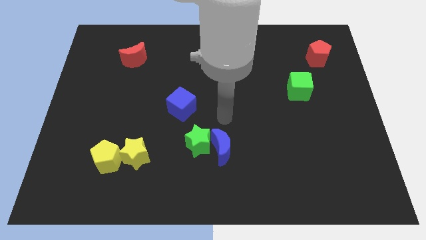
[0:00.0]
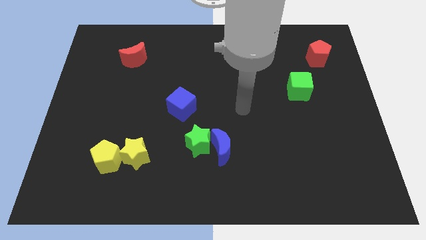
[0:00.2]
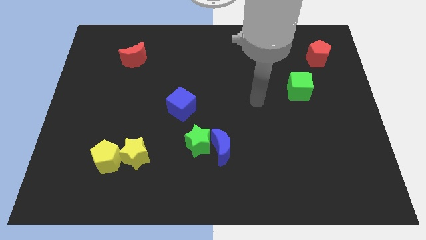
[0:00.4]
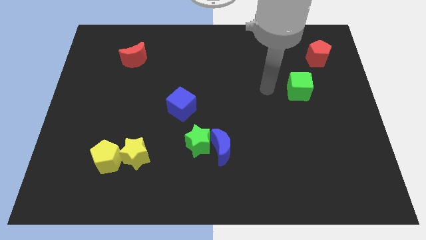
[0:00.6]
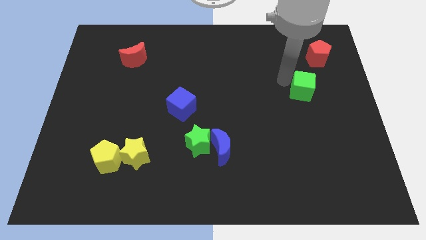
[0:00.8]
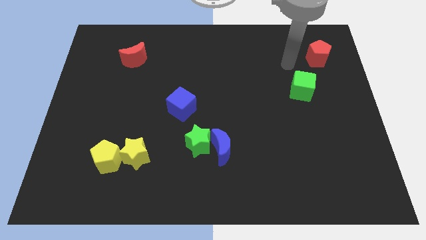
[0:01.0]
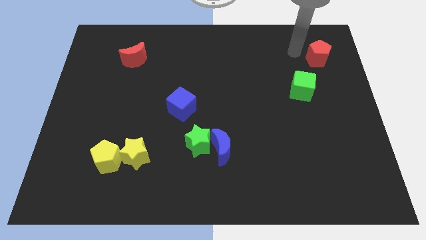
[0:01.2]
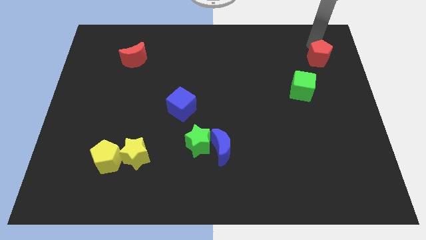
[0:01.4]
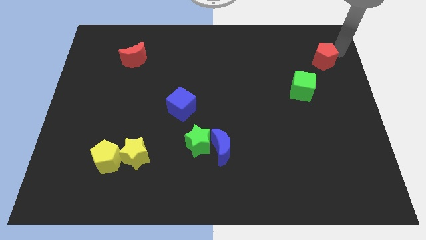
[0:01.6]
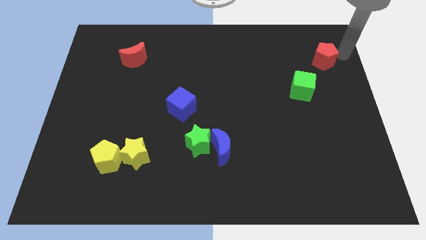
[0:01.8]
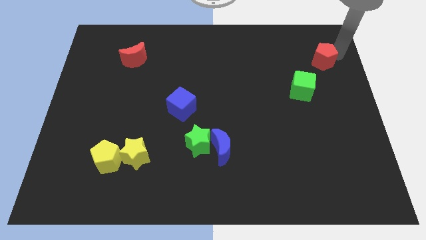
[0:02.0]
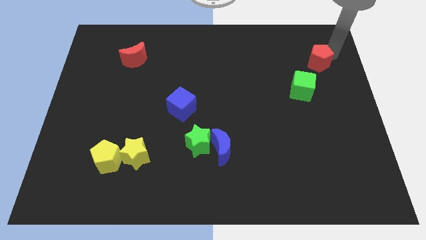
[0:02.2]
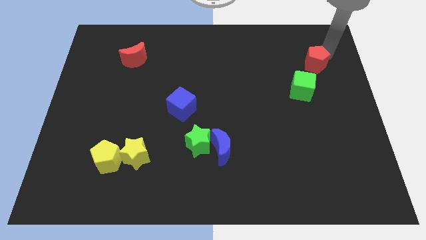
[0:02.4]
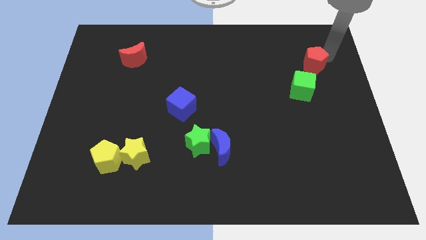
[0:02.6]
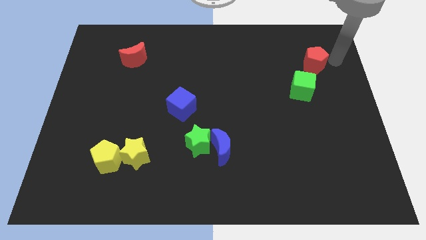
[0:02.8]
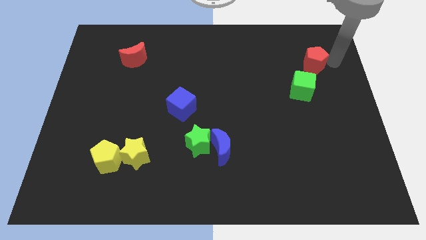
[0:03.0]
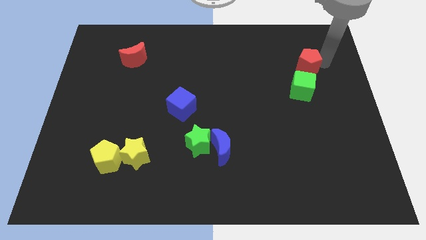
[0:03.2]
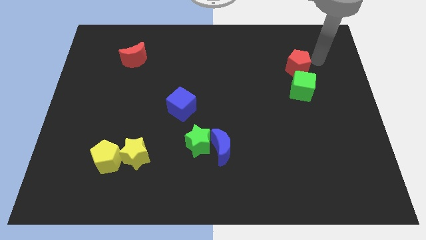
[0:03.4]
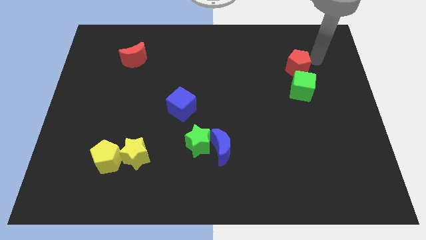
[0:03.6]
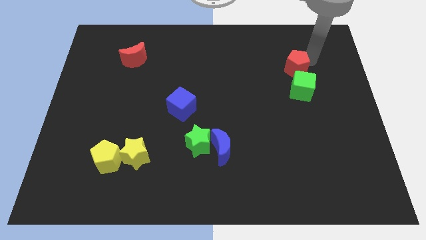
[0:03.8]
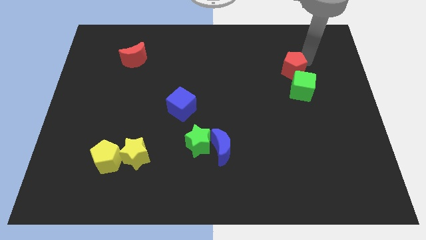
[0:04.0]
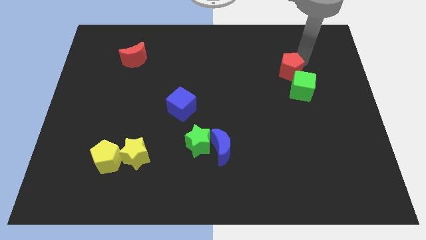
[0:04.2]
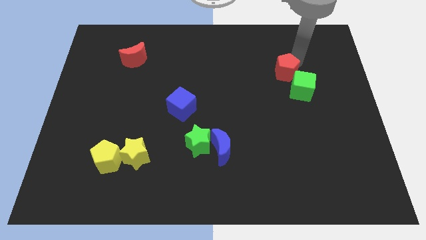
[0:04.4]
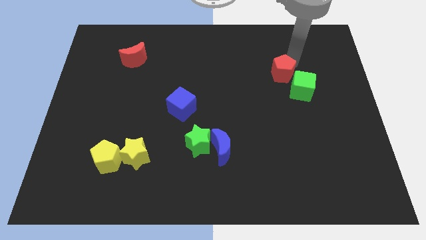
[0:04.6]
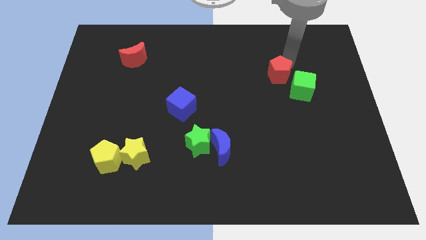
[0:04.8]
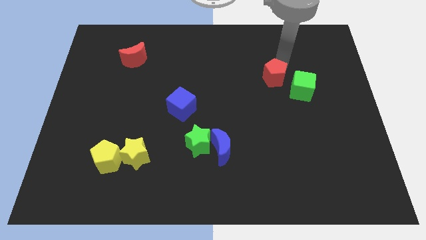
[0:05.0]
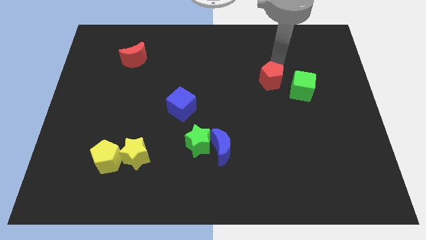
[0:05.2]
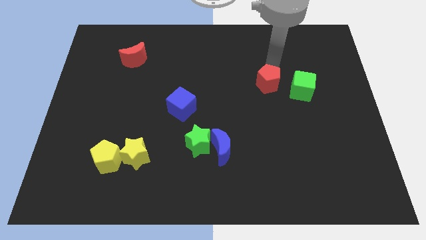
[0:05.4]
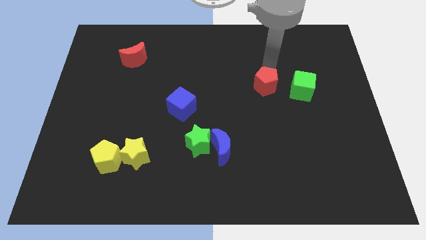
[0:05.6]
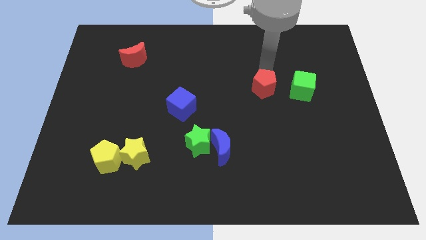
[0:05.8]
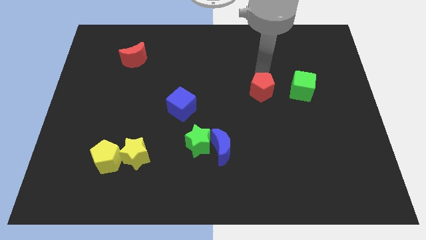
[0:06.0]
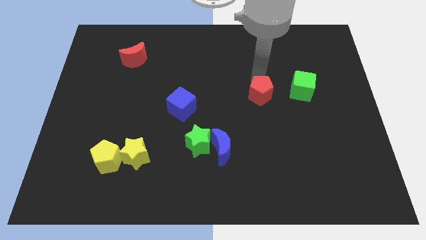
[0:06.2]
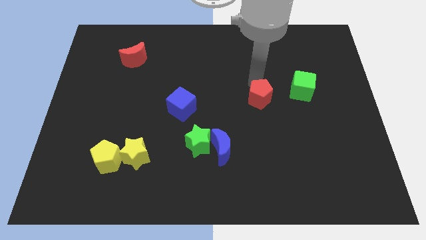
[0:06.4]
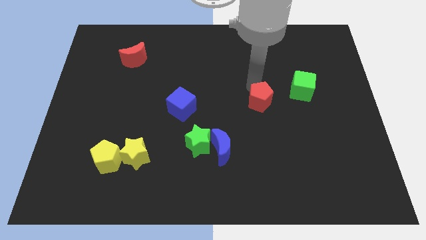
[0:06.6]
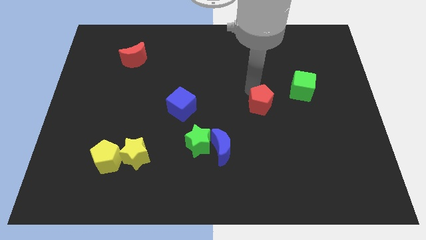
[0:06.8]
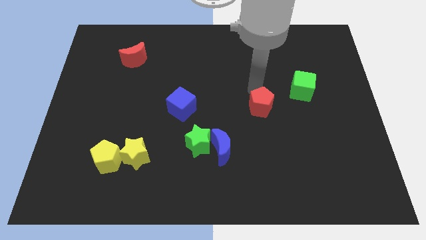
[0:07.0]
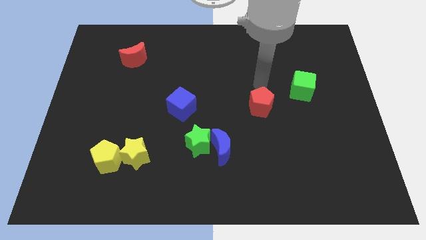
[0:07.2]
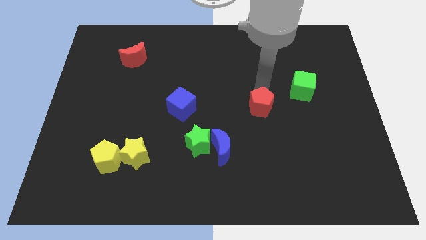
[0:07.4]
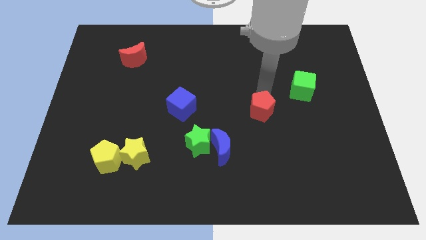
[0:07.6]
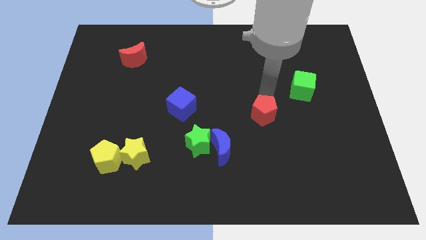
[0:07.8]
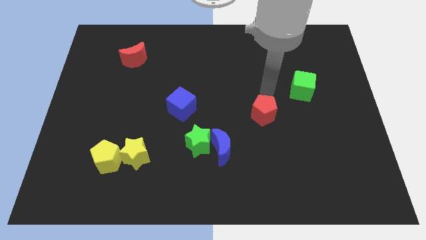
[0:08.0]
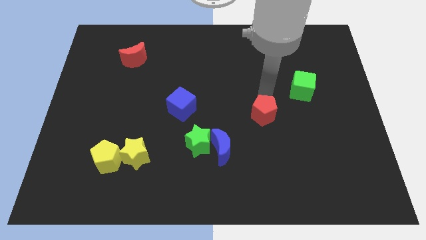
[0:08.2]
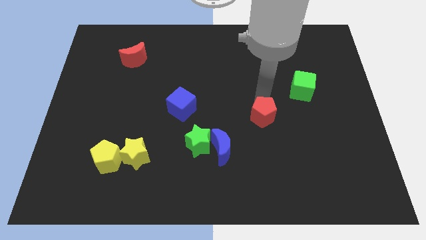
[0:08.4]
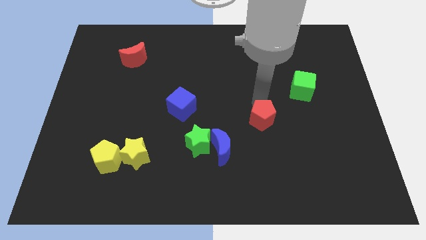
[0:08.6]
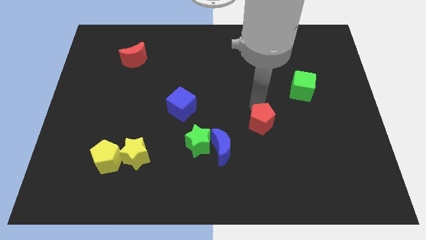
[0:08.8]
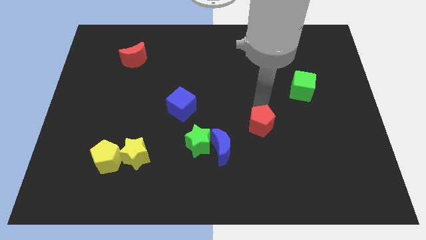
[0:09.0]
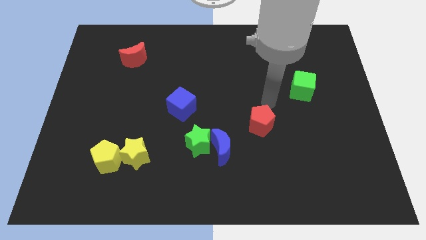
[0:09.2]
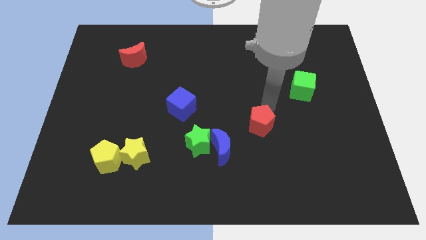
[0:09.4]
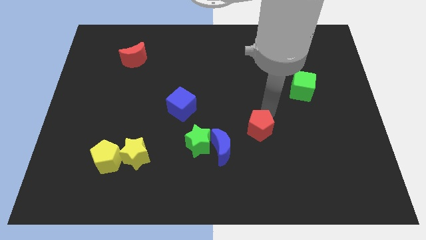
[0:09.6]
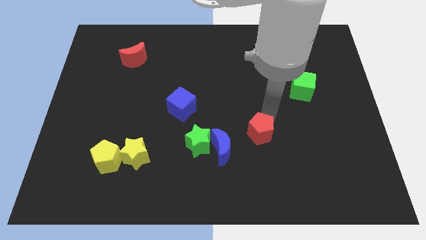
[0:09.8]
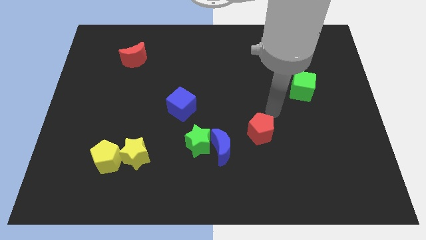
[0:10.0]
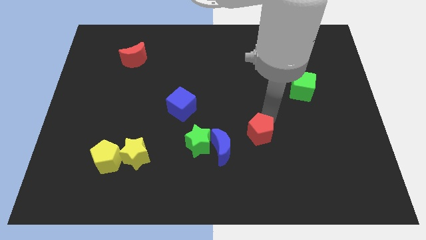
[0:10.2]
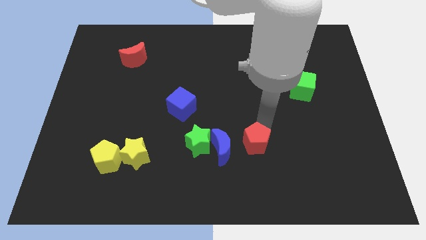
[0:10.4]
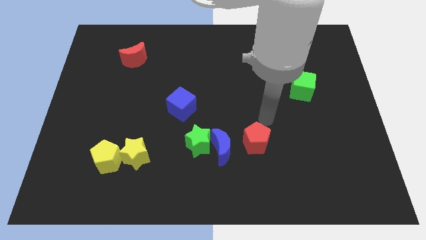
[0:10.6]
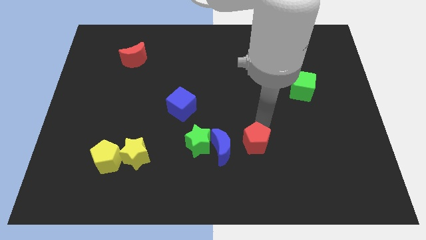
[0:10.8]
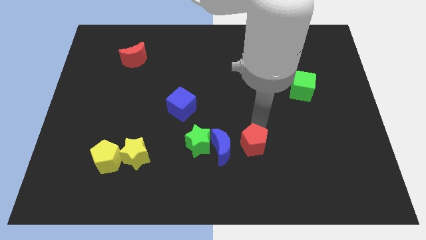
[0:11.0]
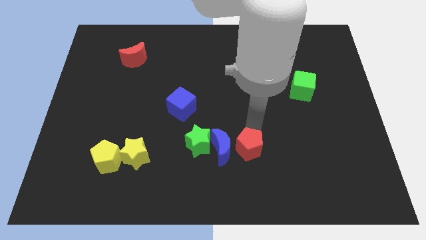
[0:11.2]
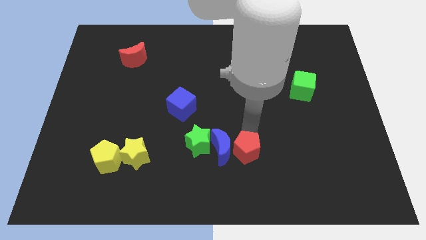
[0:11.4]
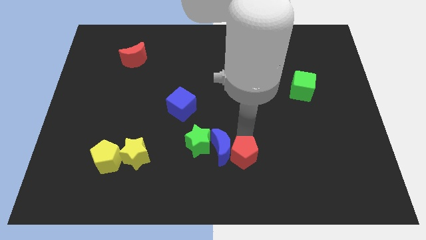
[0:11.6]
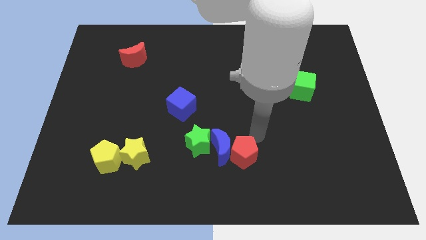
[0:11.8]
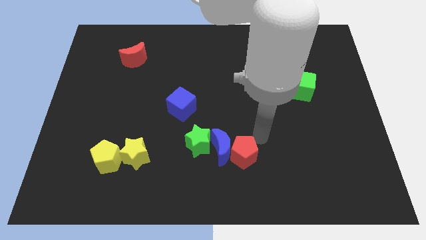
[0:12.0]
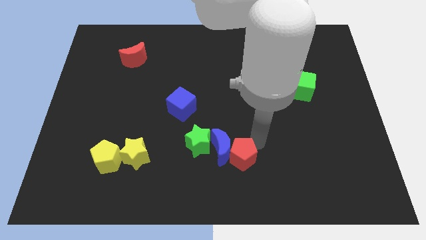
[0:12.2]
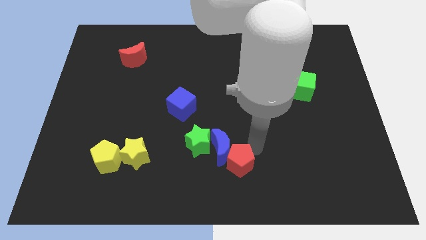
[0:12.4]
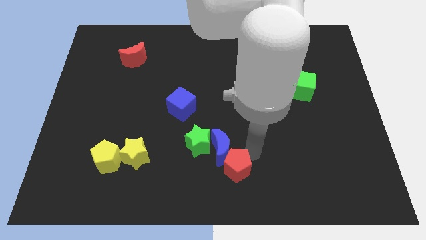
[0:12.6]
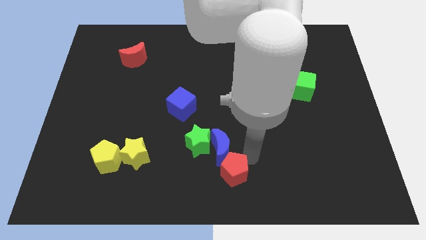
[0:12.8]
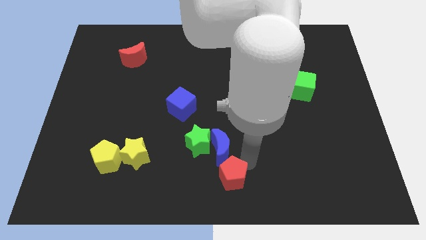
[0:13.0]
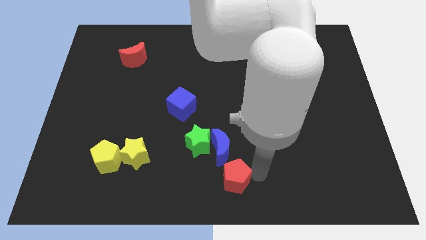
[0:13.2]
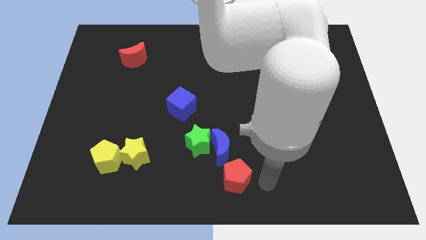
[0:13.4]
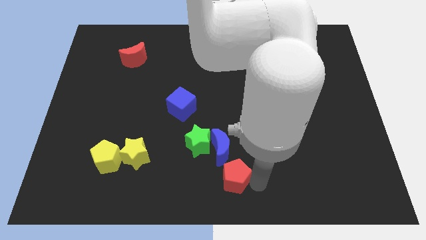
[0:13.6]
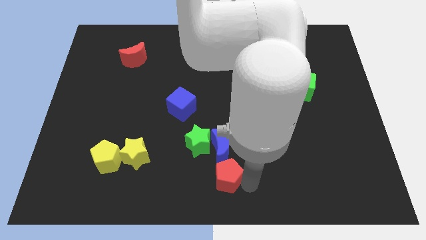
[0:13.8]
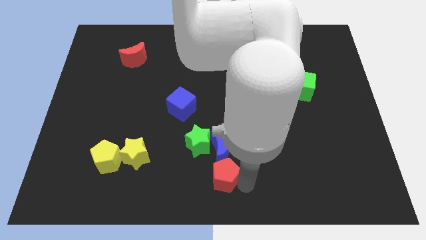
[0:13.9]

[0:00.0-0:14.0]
put the red pentagon diagonally down and to the left of the blue moon
